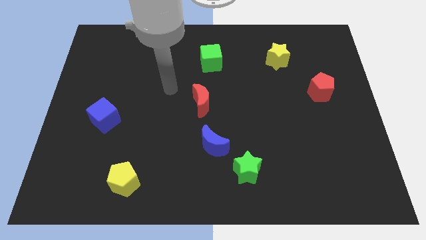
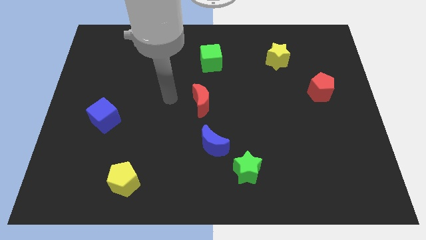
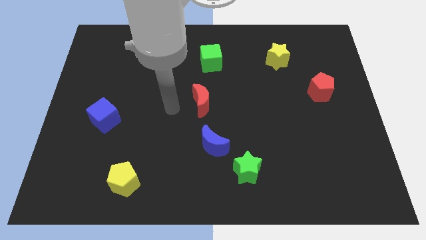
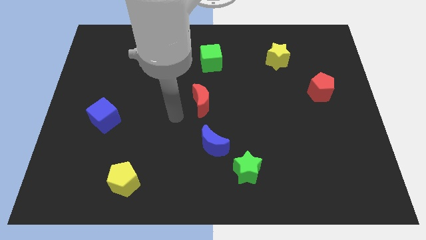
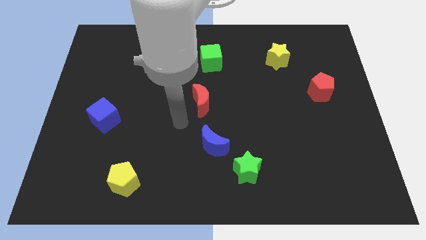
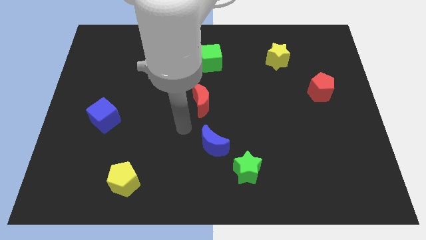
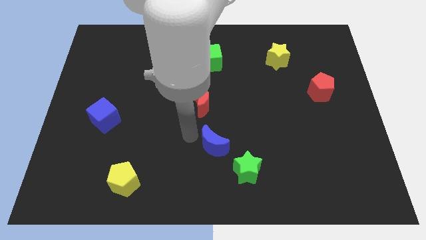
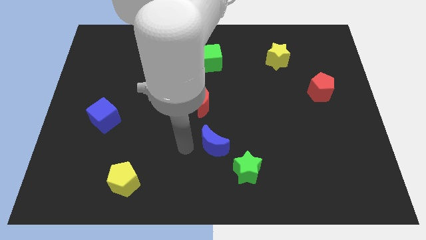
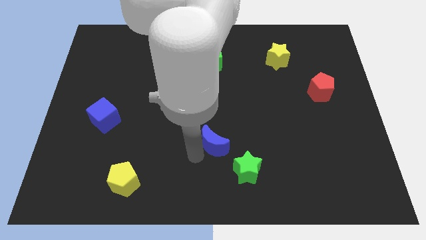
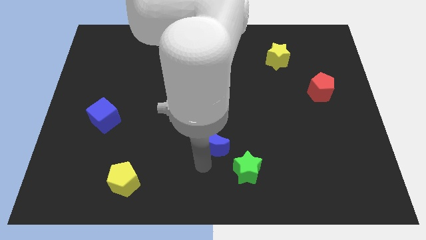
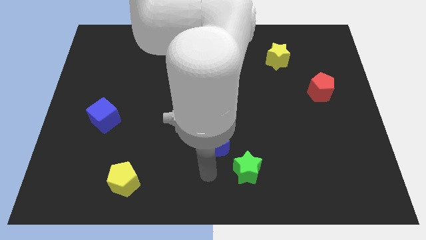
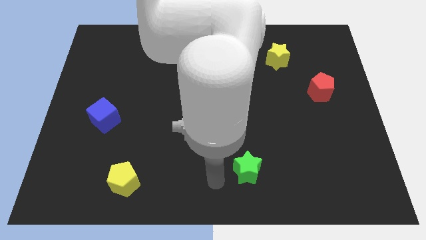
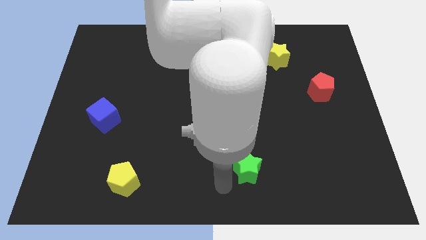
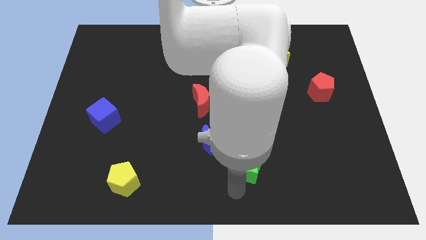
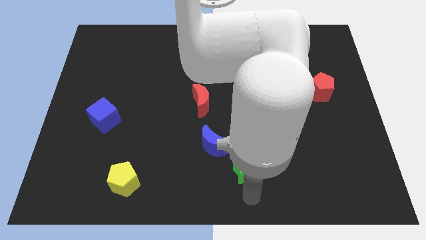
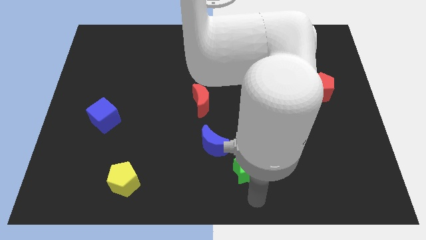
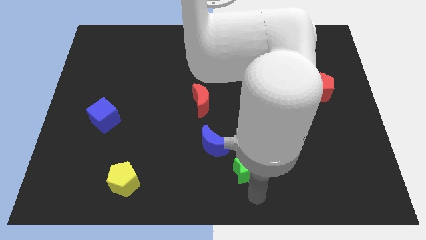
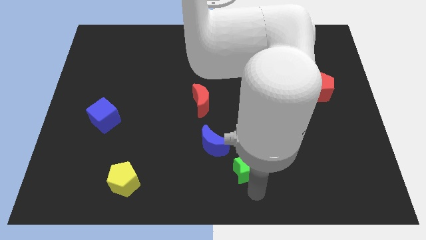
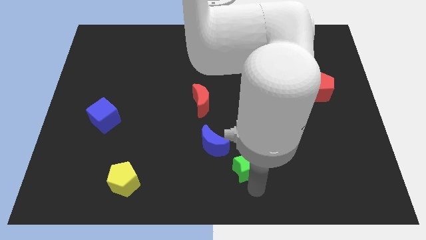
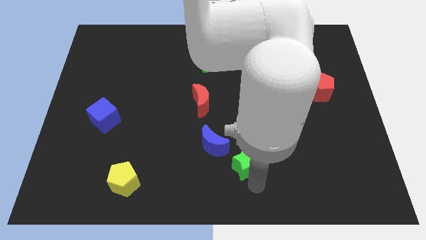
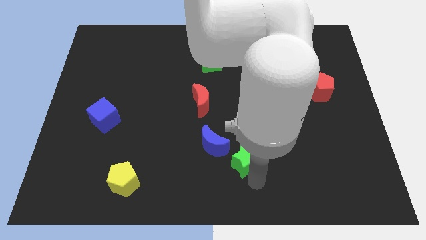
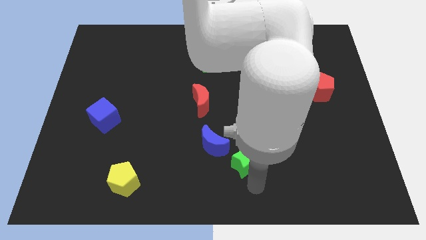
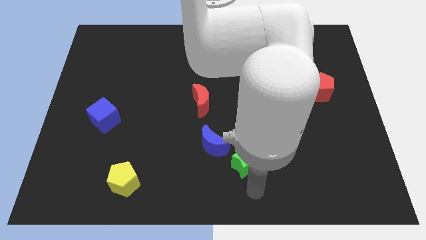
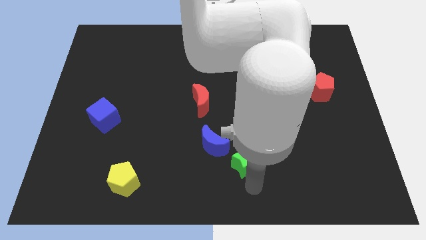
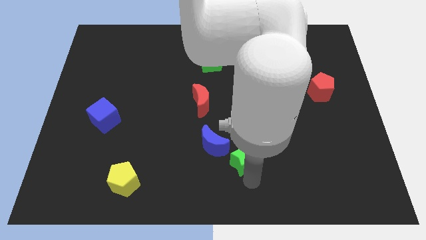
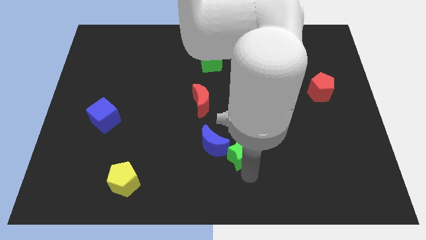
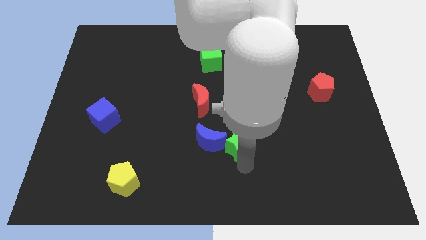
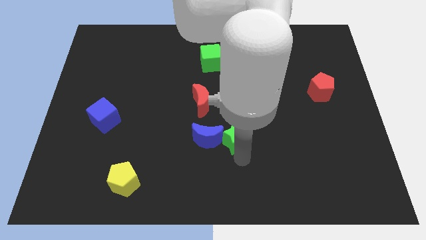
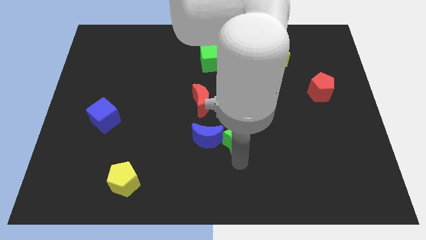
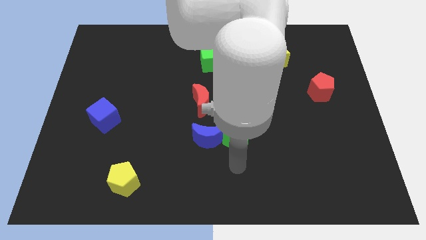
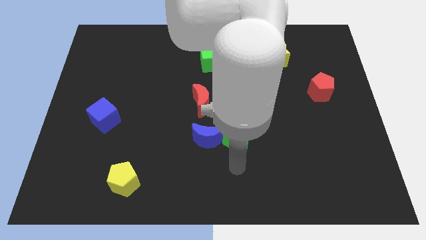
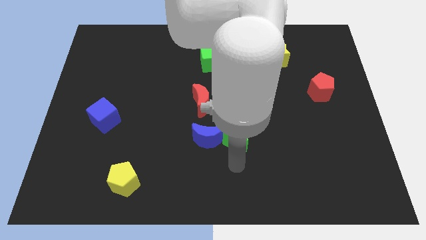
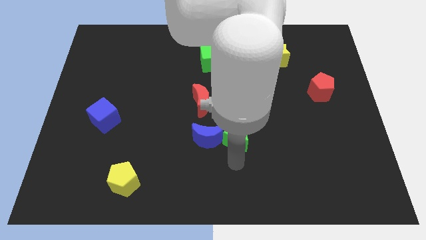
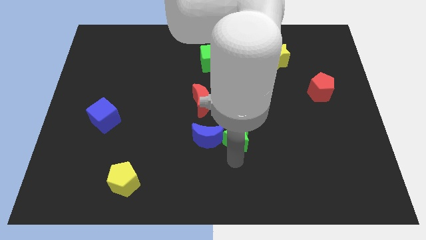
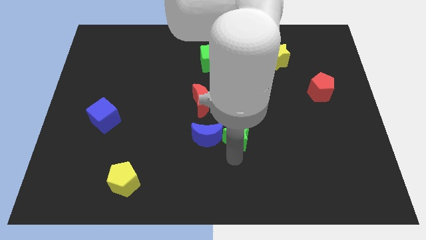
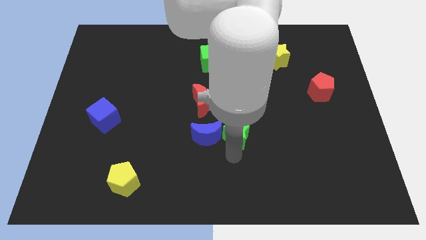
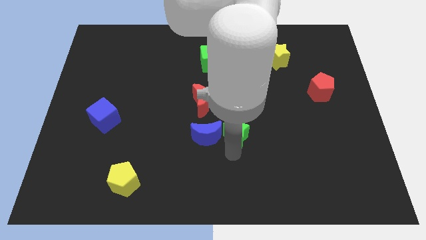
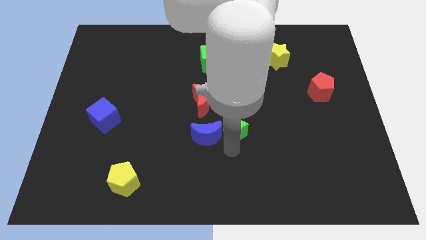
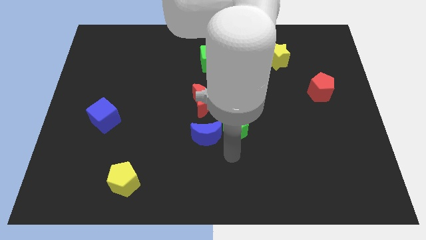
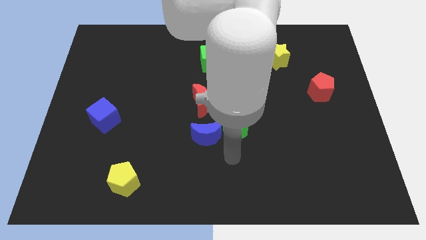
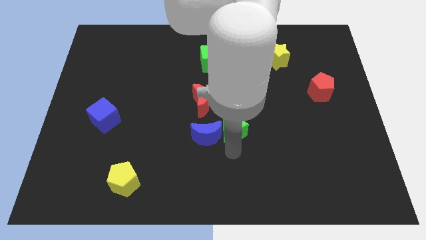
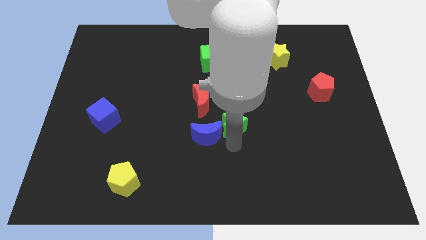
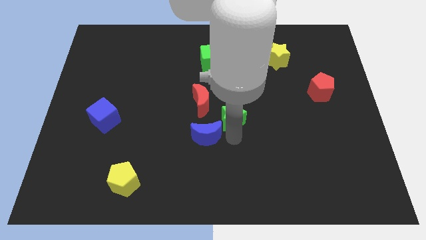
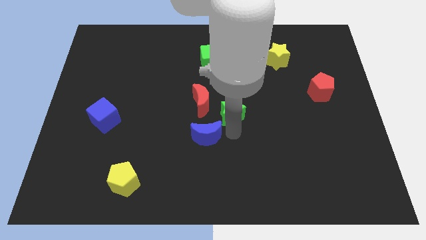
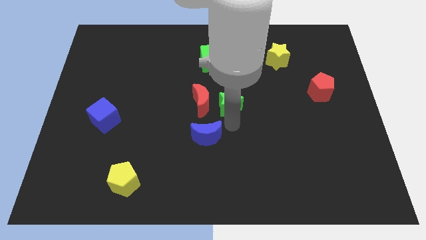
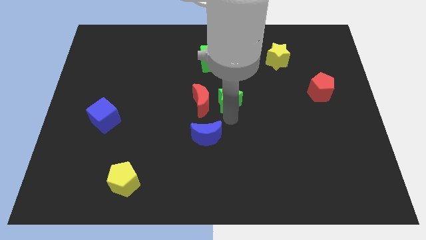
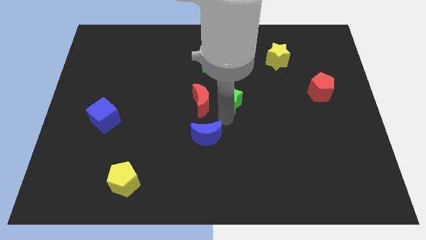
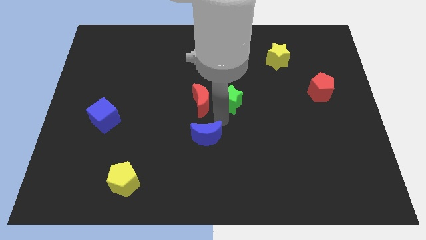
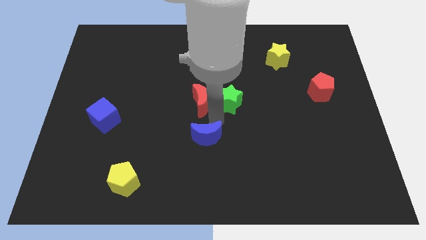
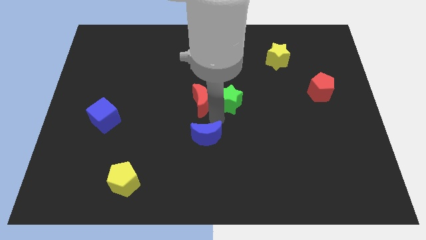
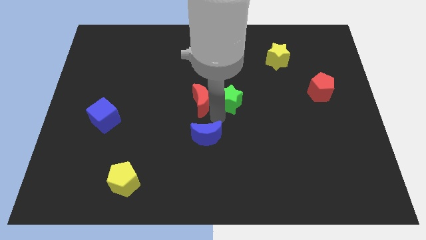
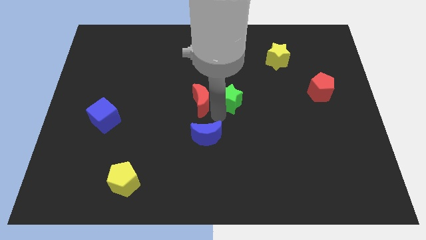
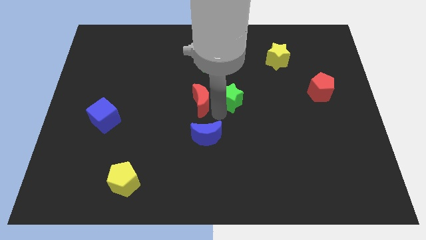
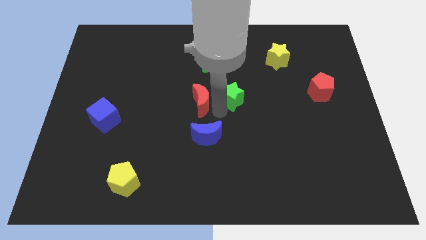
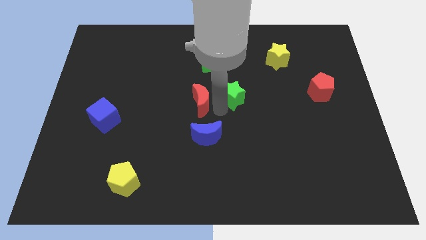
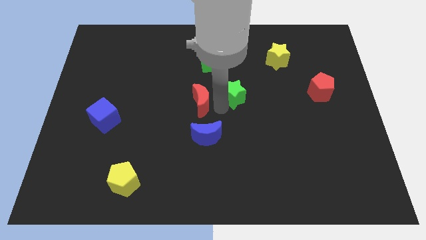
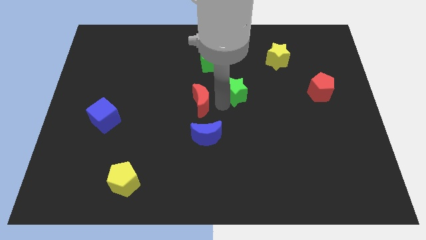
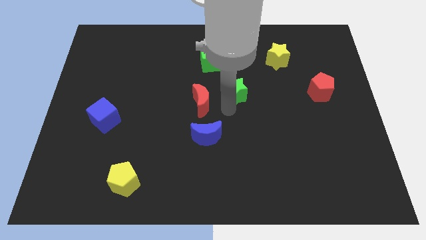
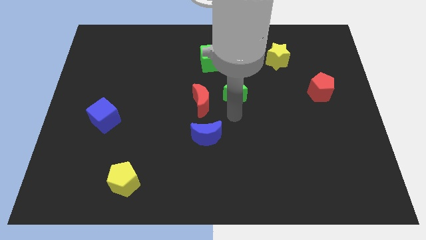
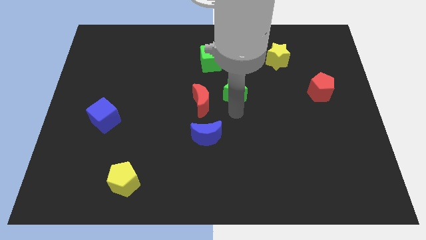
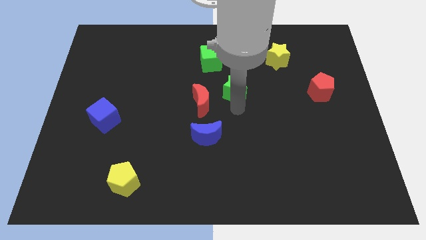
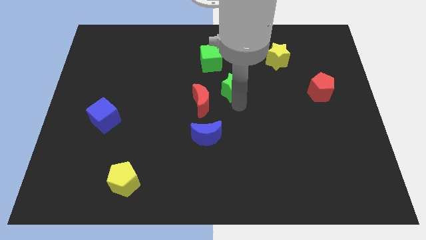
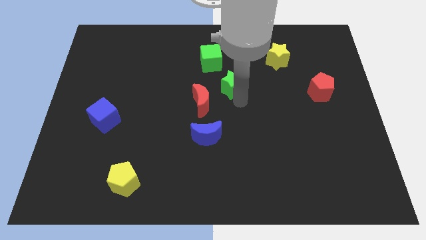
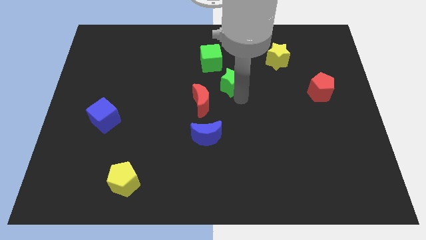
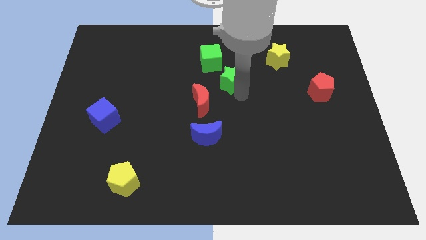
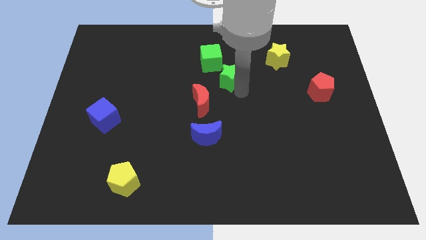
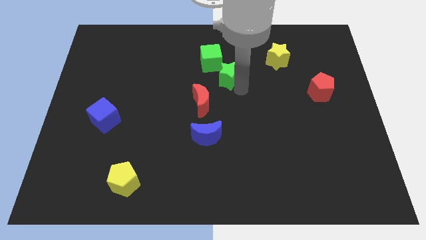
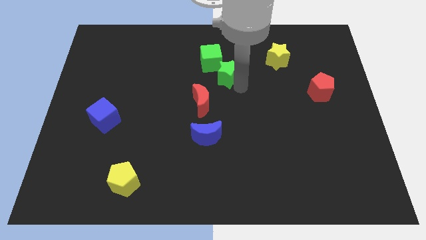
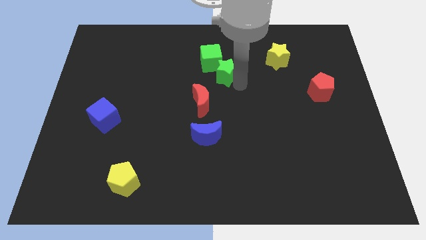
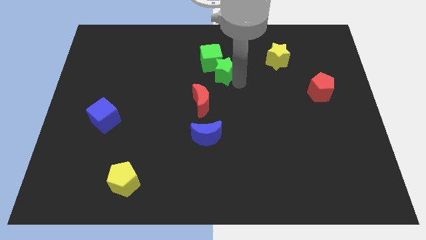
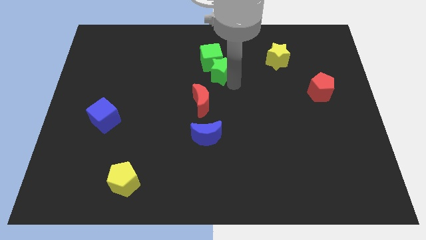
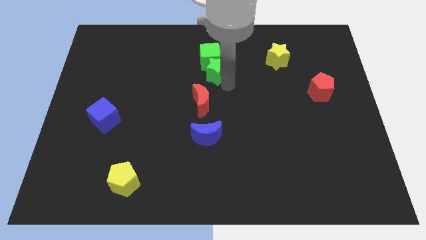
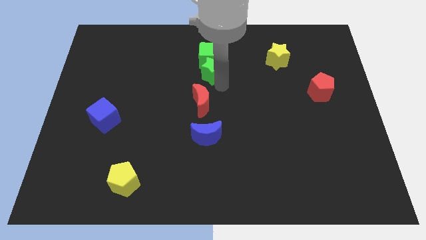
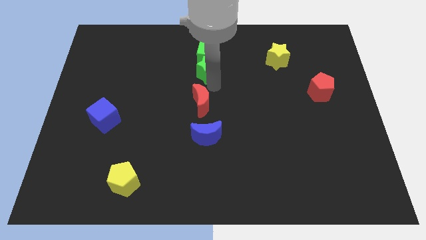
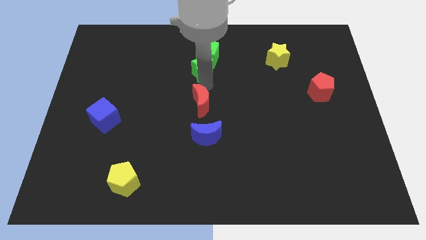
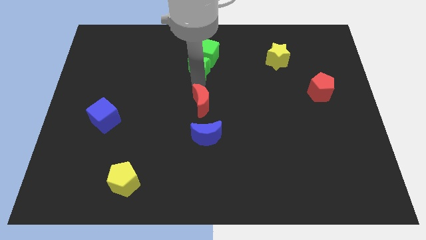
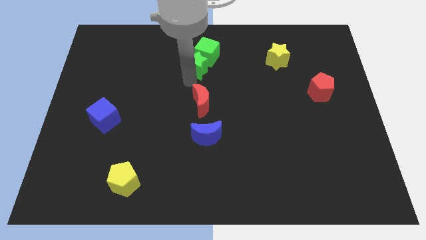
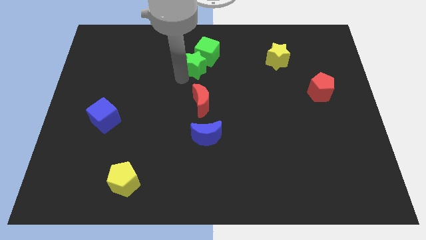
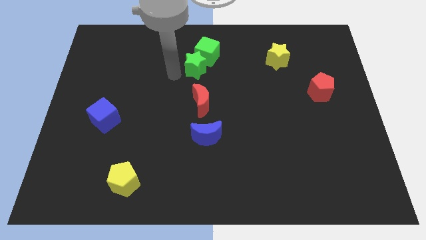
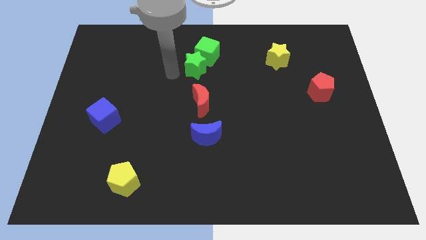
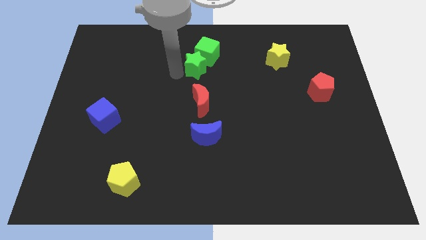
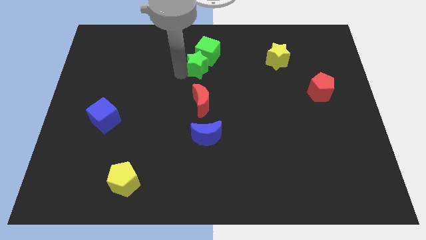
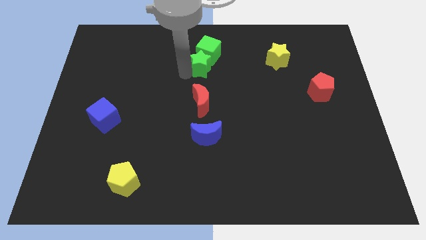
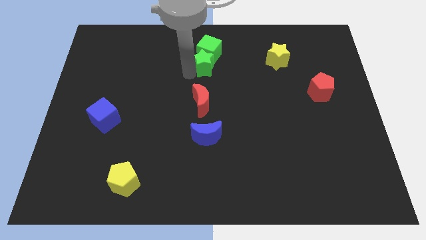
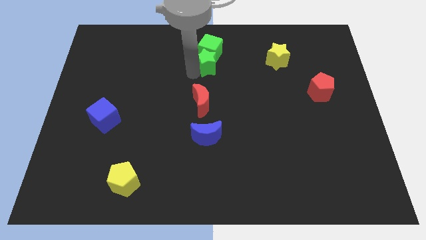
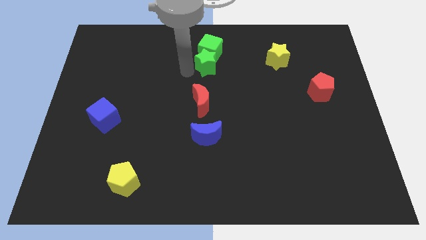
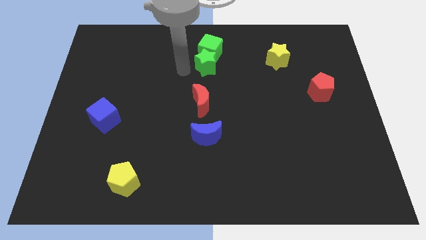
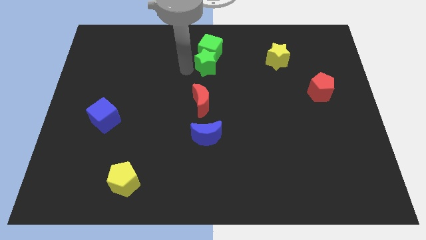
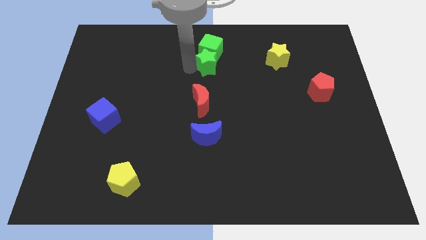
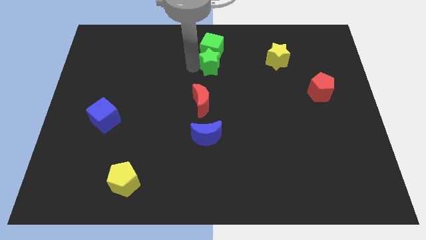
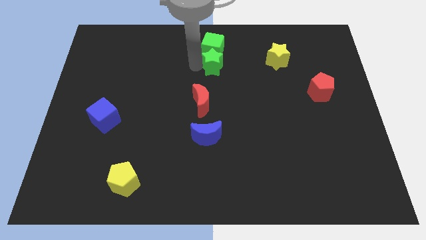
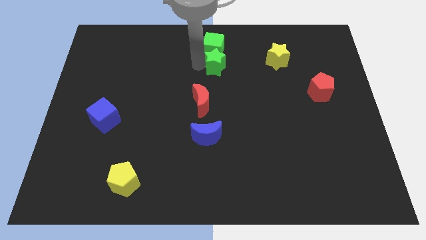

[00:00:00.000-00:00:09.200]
move the green star just left of the yellow star
